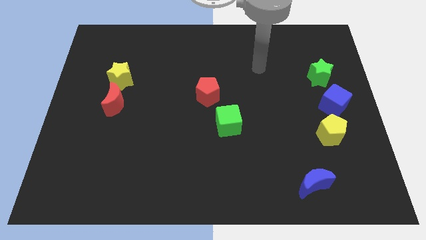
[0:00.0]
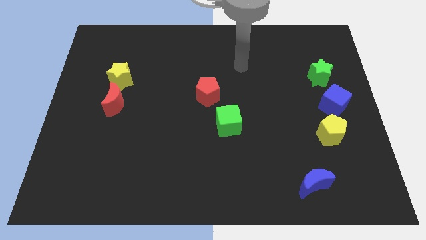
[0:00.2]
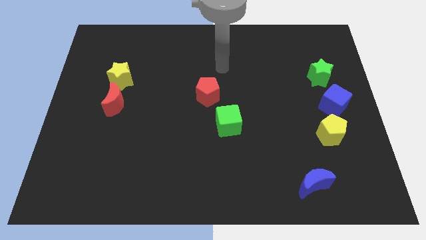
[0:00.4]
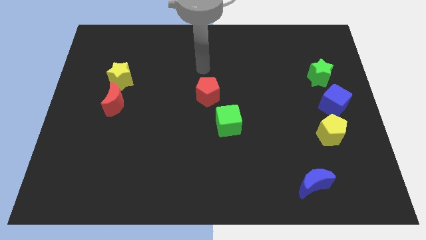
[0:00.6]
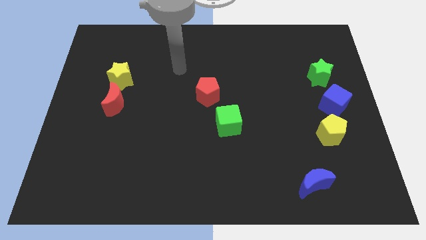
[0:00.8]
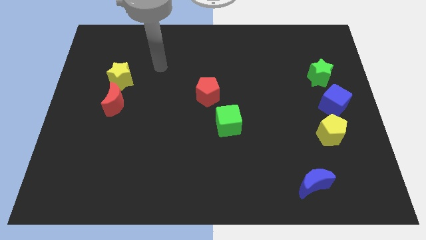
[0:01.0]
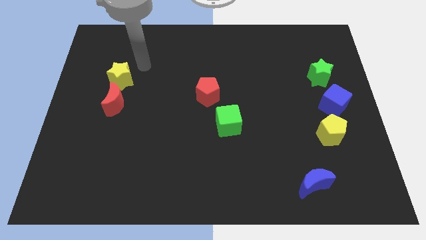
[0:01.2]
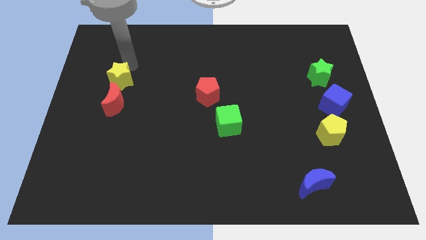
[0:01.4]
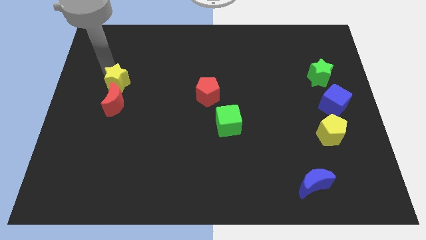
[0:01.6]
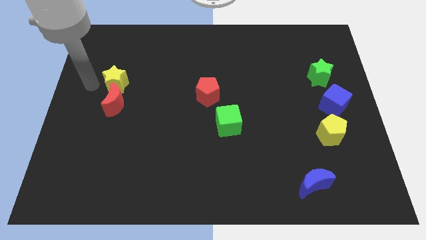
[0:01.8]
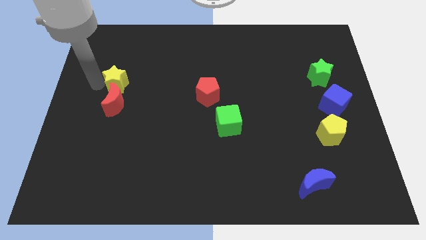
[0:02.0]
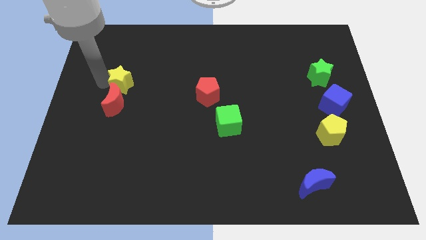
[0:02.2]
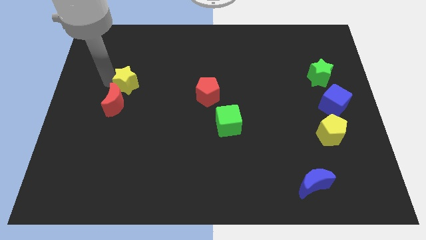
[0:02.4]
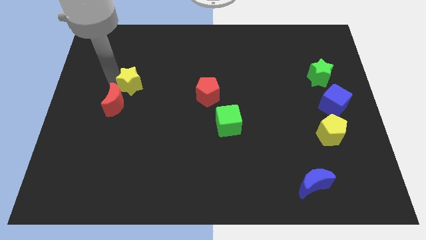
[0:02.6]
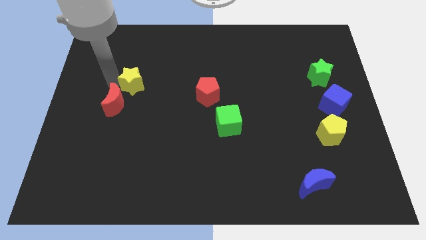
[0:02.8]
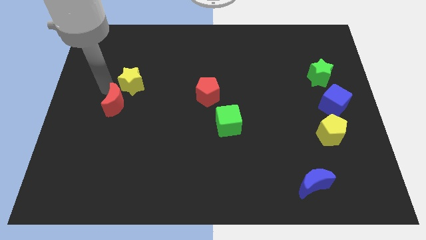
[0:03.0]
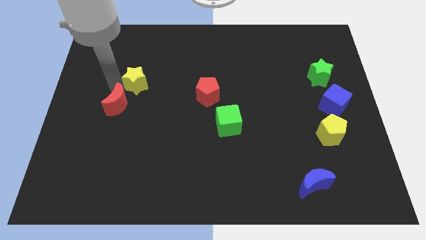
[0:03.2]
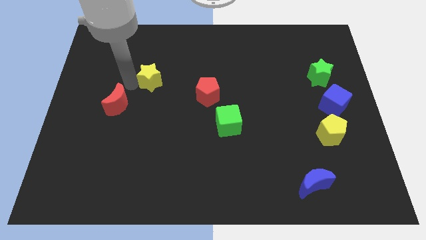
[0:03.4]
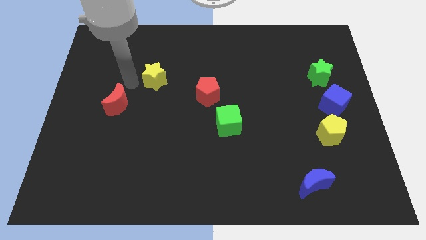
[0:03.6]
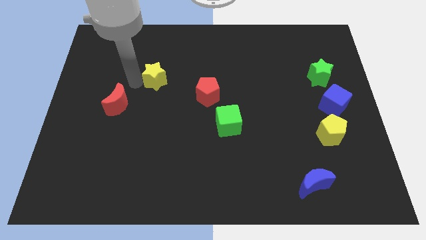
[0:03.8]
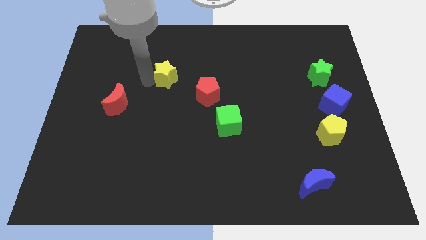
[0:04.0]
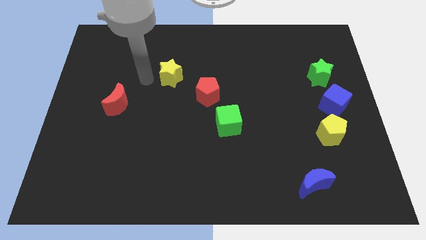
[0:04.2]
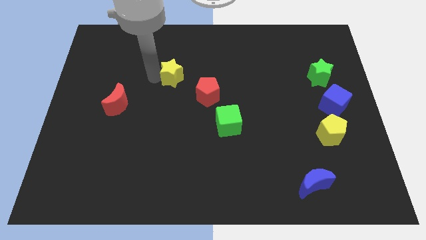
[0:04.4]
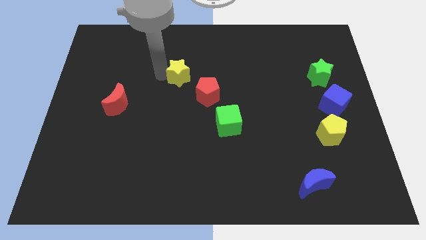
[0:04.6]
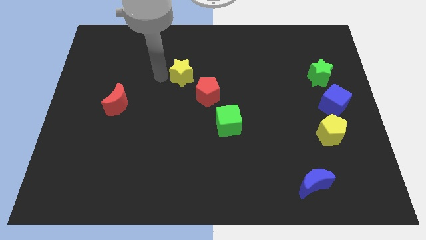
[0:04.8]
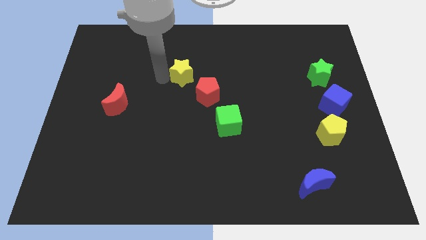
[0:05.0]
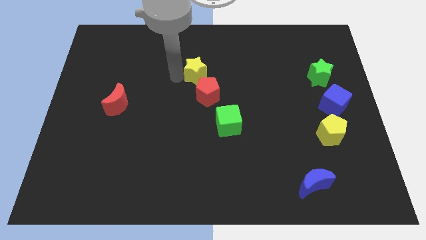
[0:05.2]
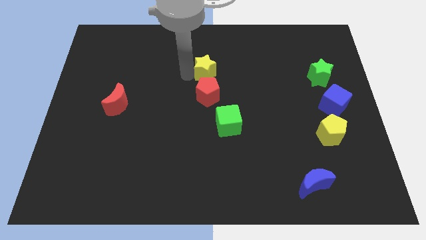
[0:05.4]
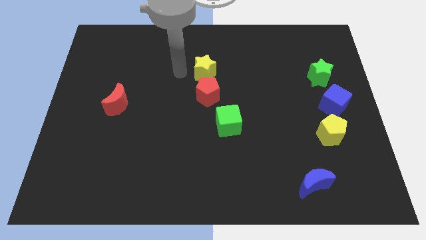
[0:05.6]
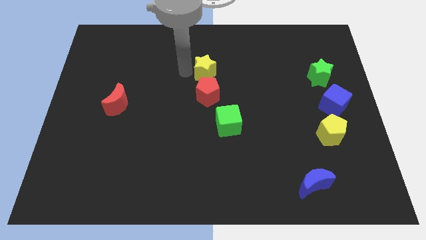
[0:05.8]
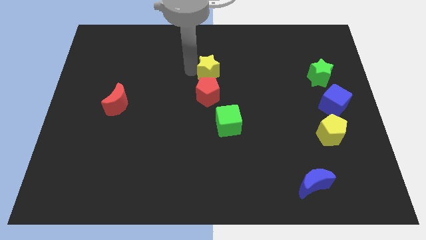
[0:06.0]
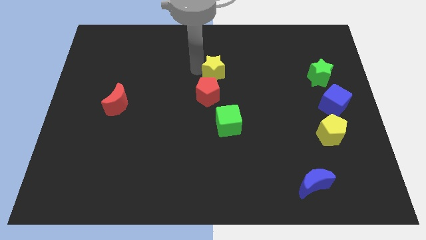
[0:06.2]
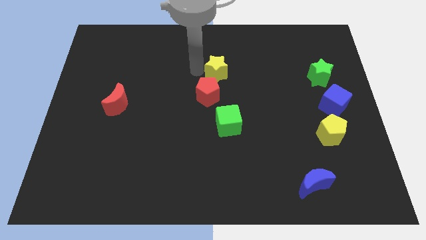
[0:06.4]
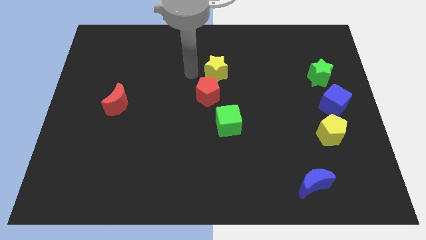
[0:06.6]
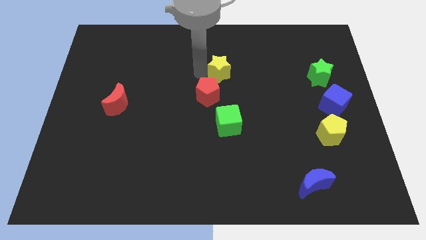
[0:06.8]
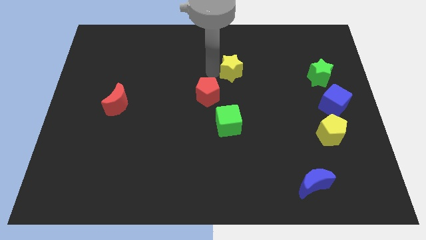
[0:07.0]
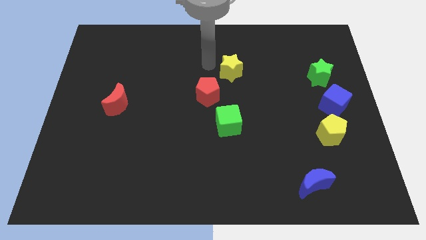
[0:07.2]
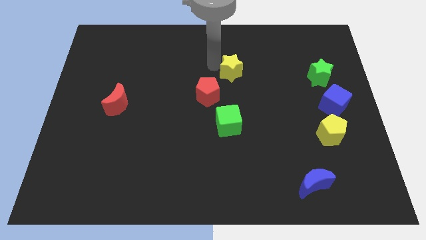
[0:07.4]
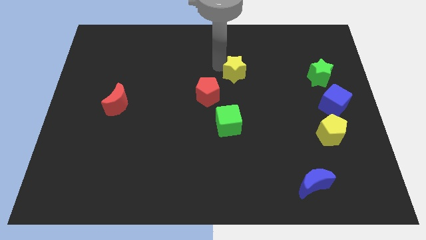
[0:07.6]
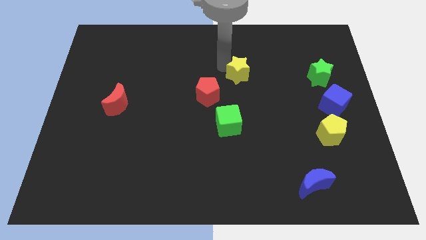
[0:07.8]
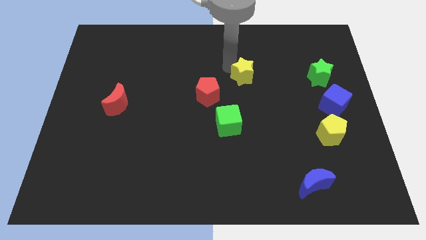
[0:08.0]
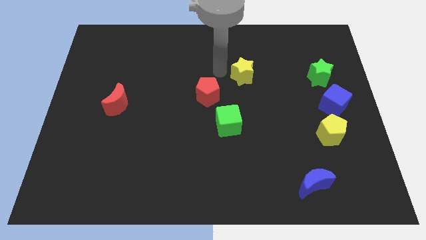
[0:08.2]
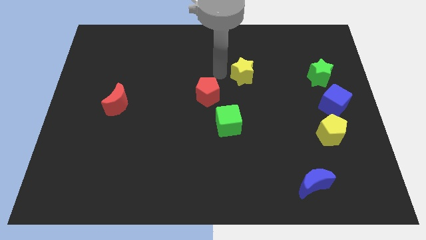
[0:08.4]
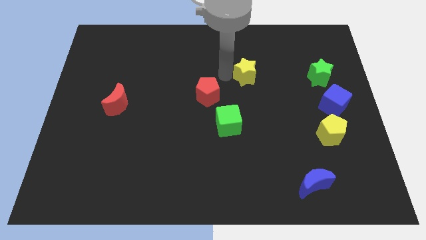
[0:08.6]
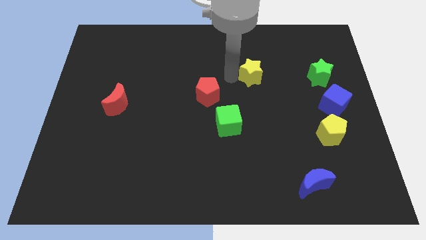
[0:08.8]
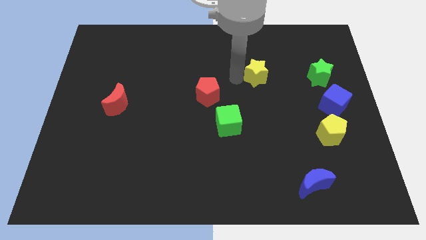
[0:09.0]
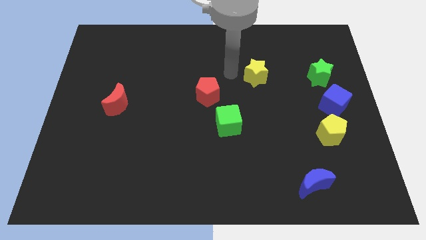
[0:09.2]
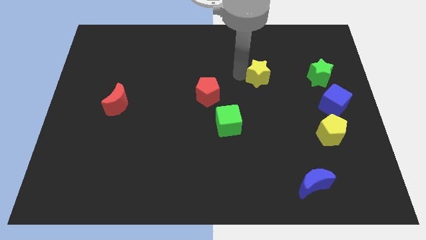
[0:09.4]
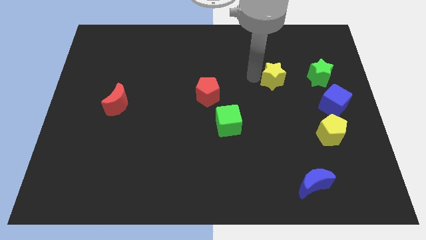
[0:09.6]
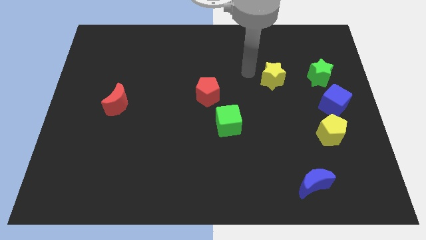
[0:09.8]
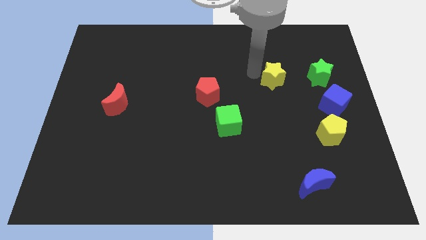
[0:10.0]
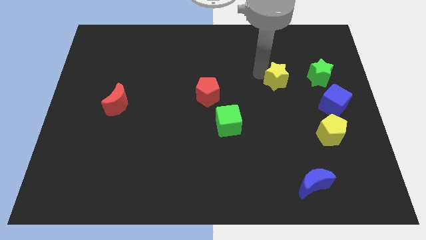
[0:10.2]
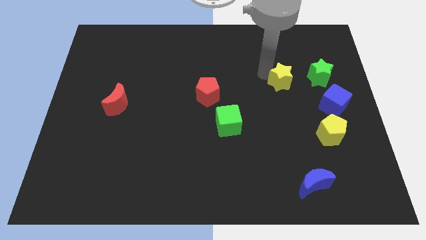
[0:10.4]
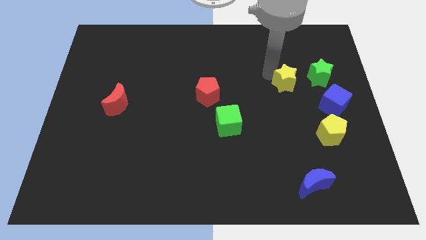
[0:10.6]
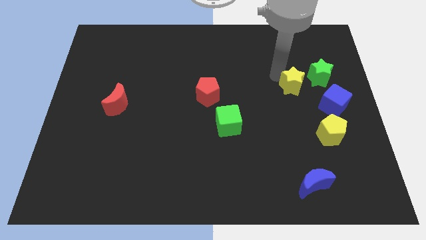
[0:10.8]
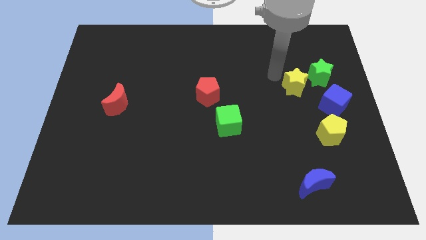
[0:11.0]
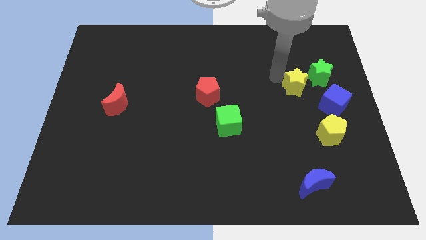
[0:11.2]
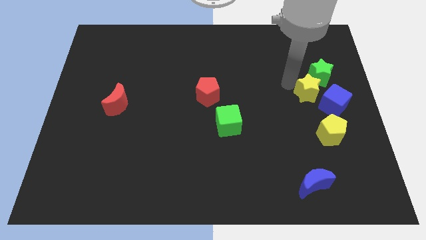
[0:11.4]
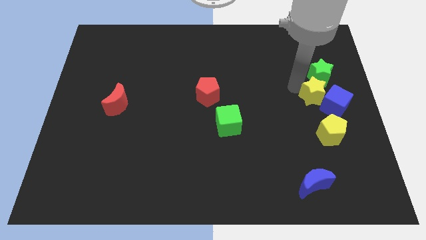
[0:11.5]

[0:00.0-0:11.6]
slide the yellow star to the blue cube

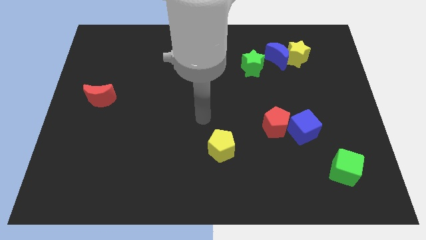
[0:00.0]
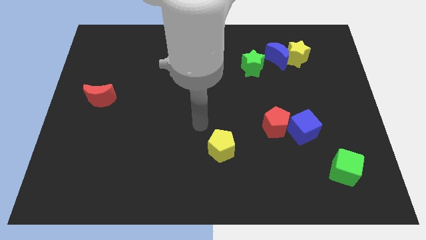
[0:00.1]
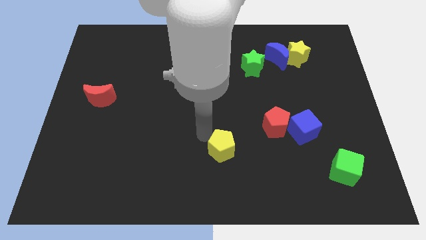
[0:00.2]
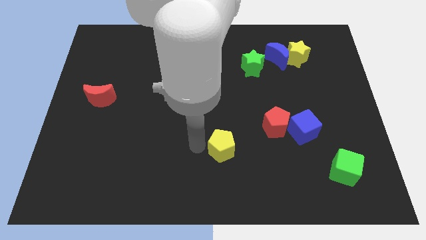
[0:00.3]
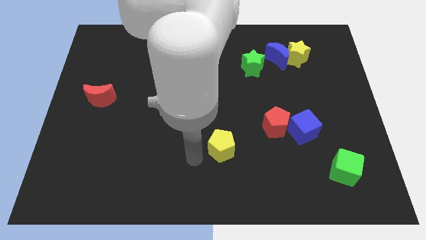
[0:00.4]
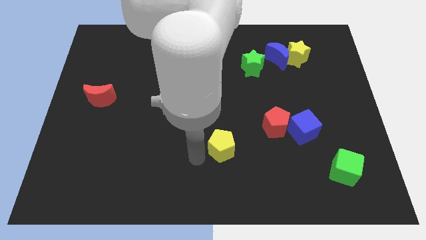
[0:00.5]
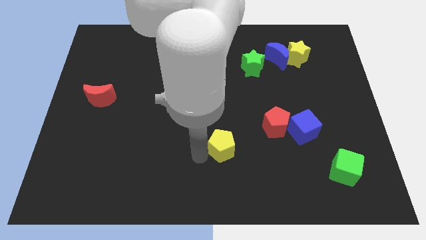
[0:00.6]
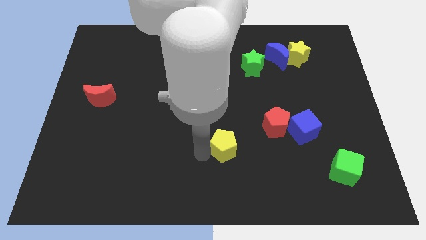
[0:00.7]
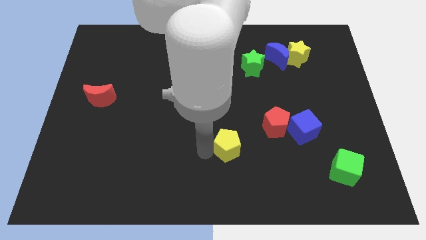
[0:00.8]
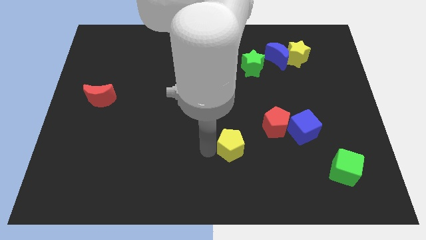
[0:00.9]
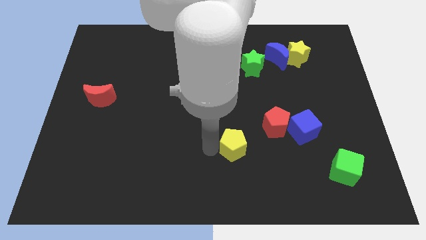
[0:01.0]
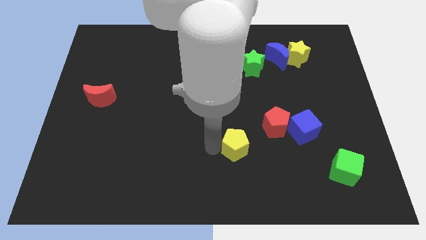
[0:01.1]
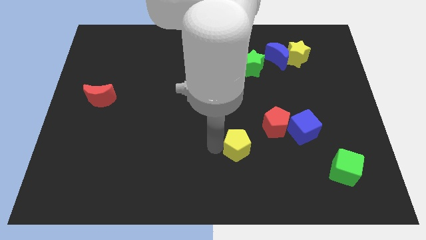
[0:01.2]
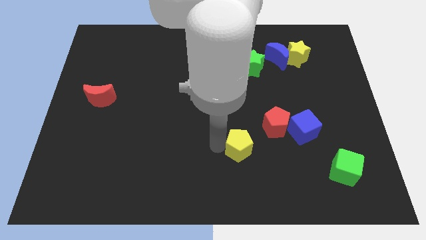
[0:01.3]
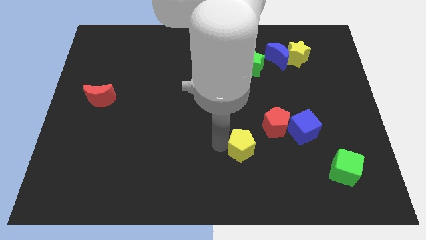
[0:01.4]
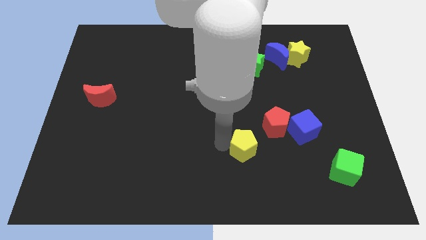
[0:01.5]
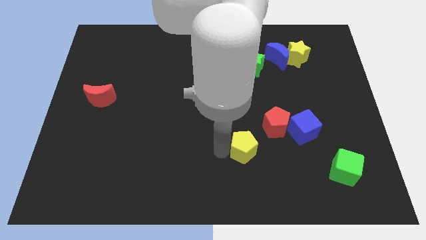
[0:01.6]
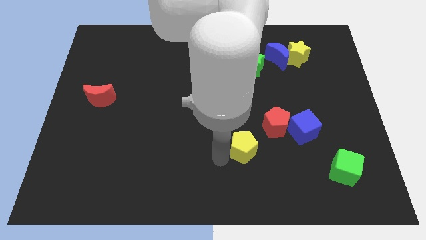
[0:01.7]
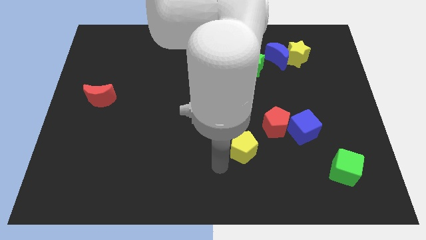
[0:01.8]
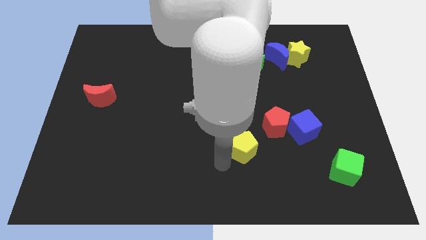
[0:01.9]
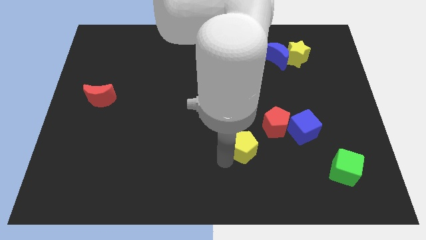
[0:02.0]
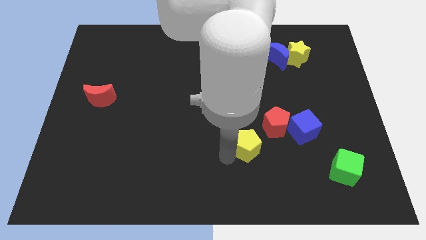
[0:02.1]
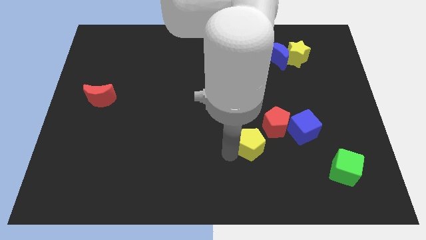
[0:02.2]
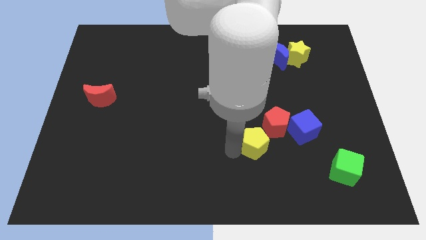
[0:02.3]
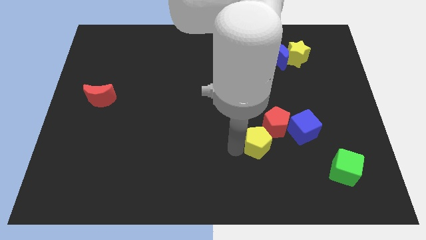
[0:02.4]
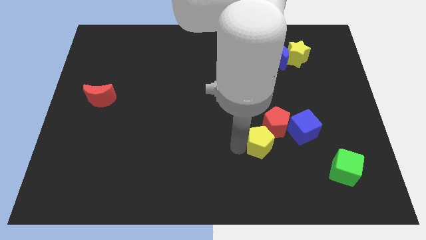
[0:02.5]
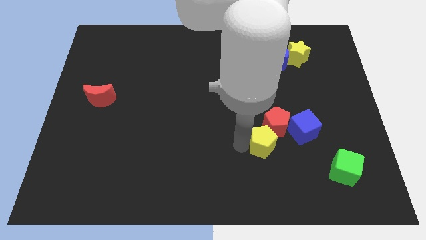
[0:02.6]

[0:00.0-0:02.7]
put the yellow pentagon close to the red pentagon
